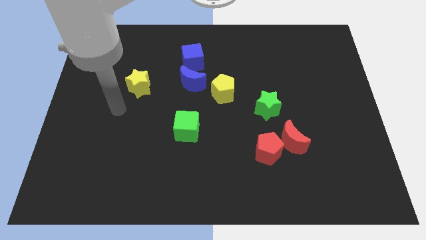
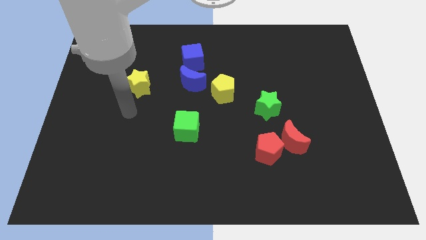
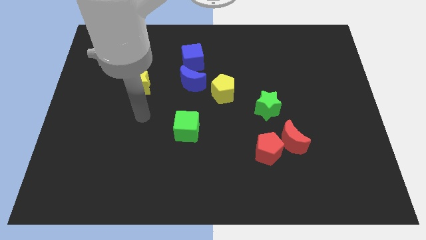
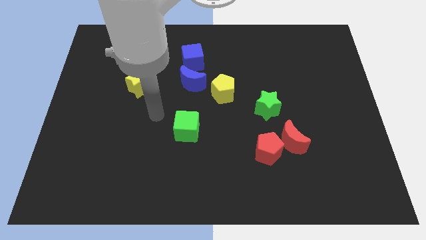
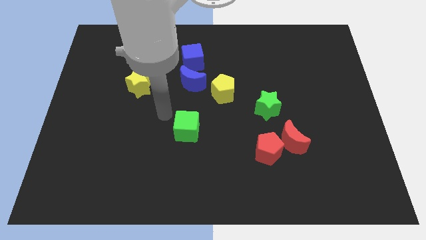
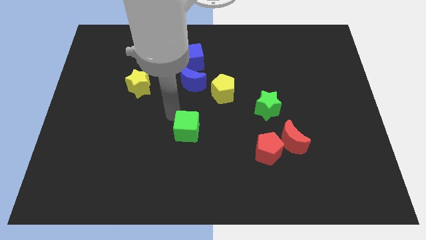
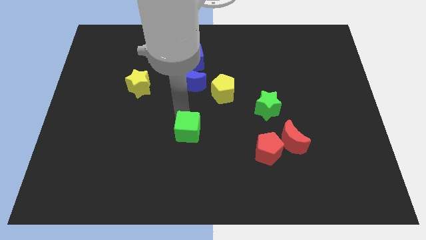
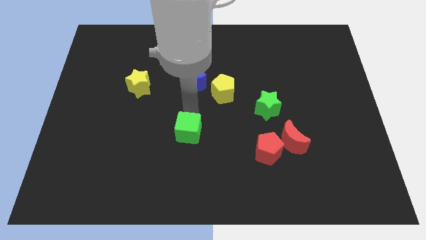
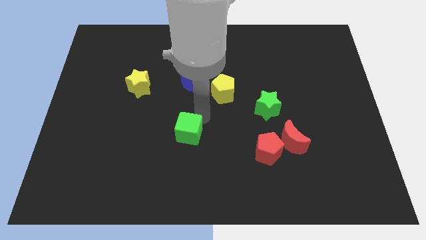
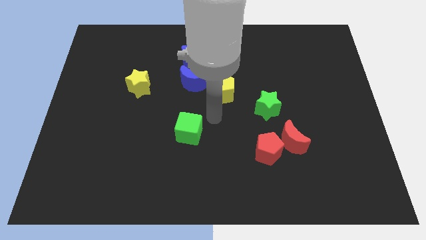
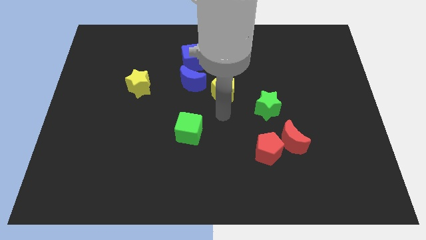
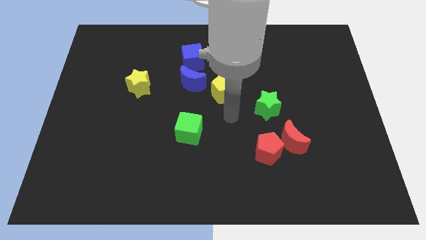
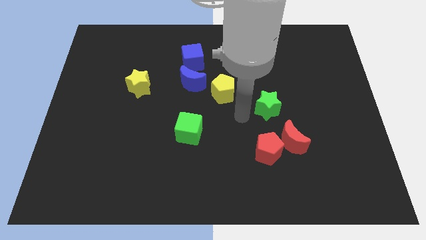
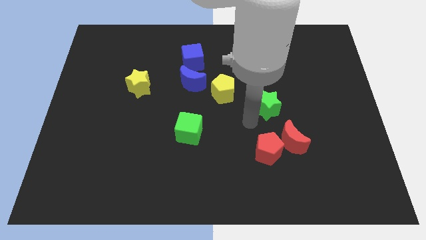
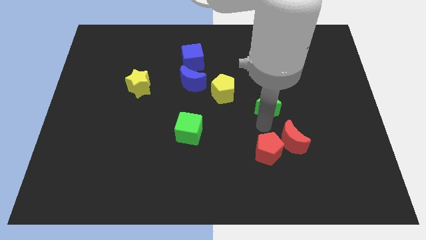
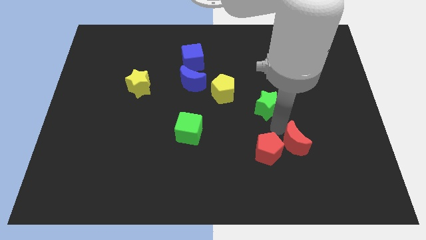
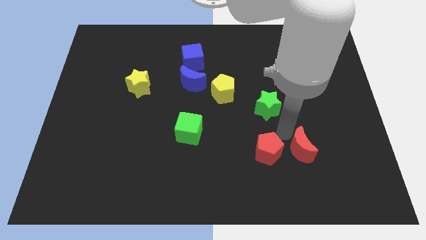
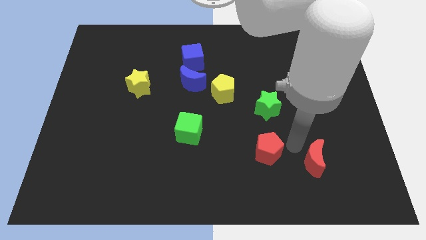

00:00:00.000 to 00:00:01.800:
pull the red pentagon apart from the red moon

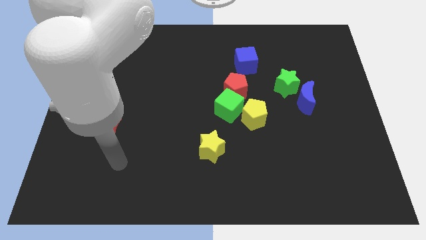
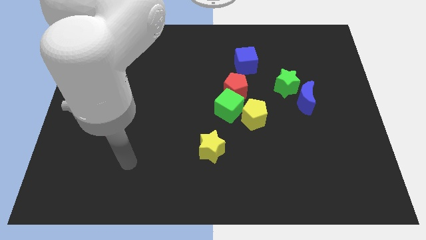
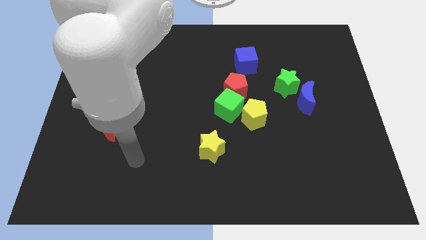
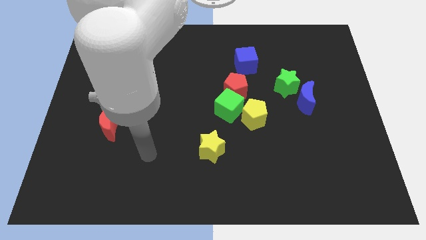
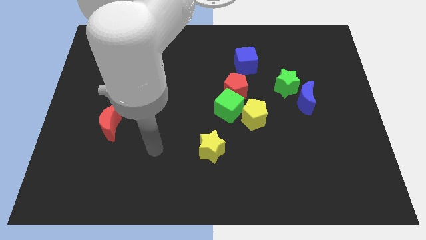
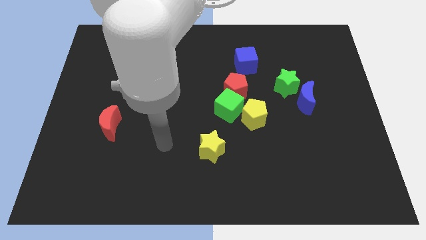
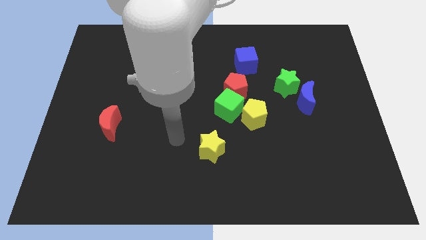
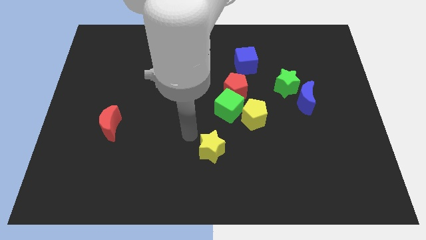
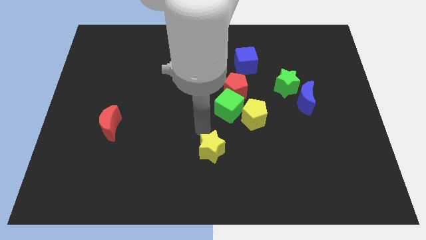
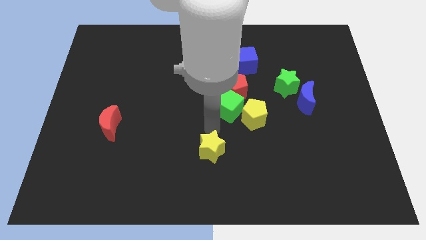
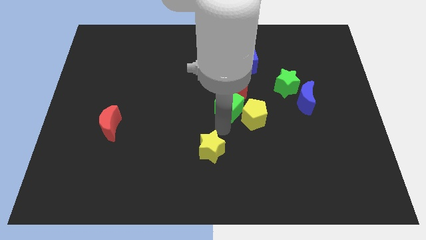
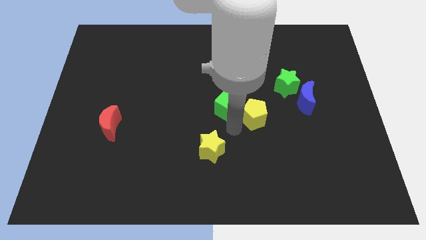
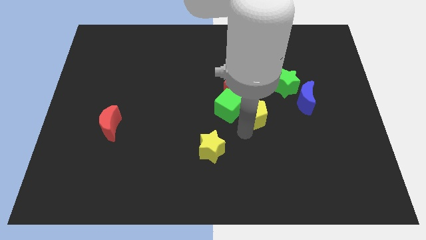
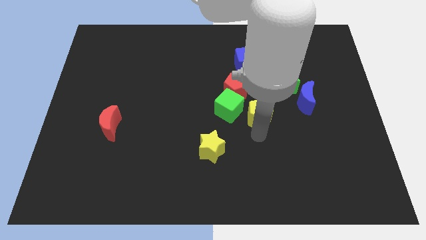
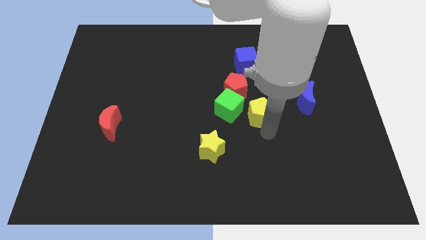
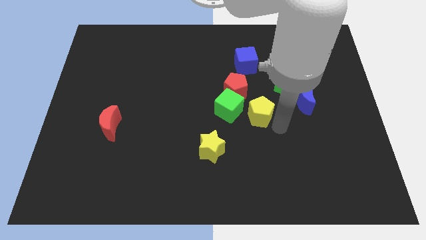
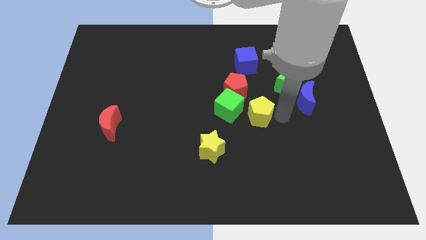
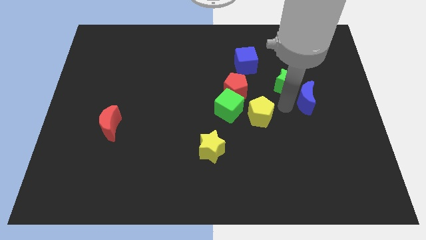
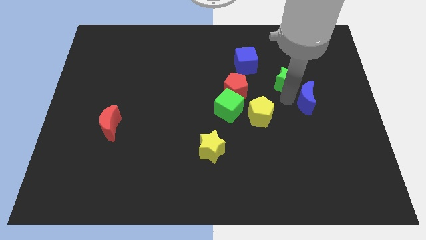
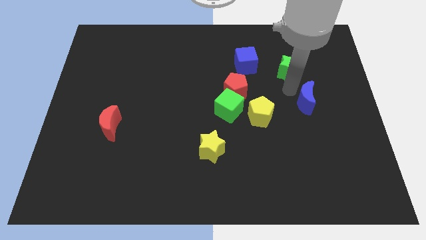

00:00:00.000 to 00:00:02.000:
pull the blue moon apart from the green star

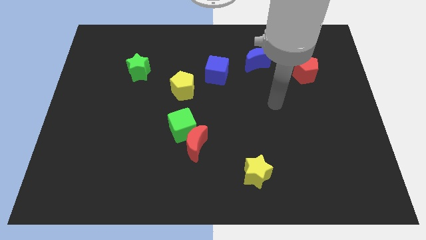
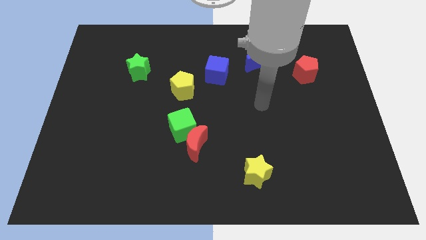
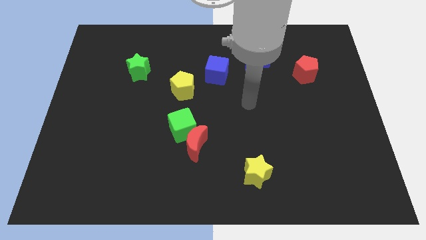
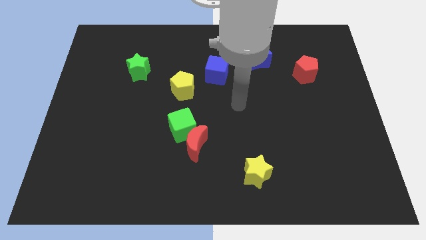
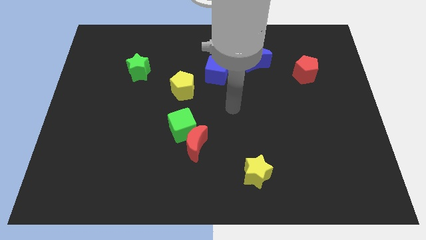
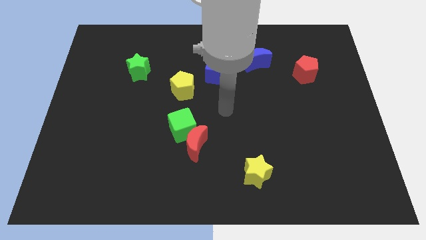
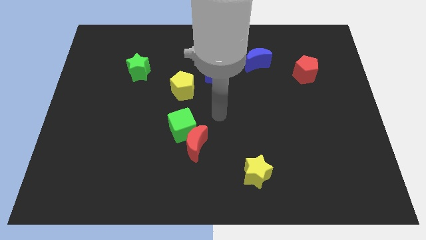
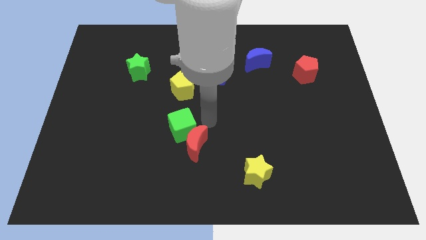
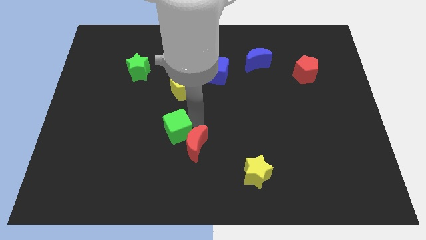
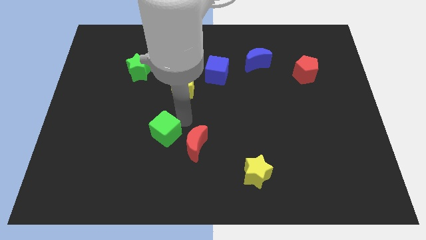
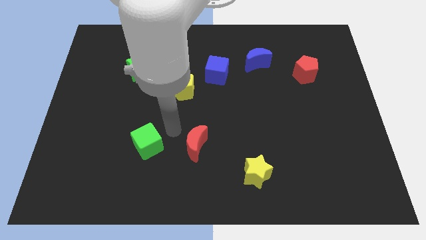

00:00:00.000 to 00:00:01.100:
pull the red moon apart from the green cube

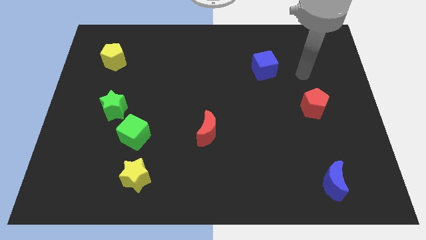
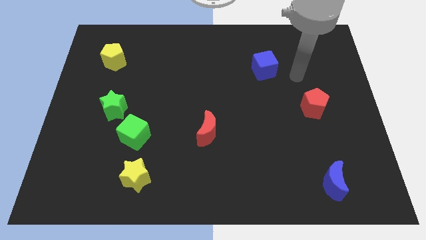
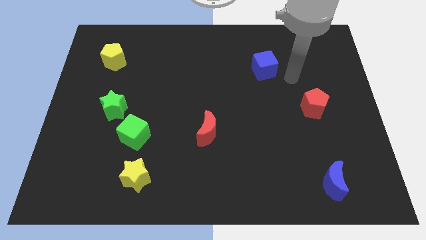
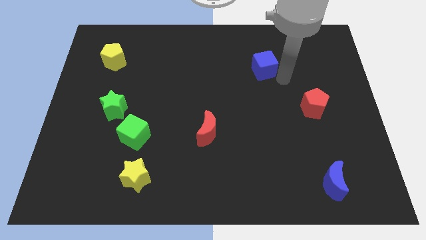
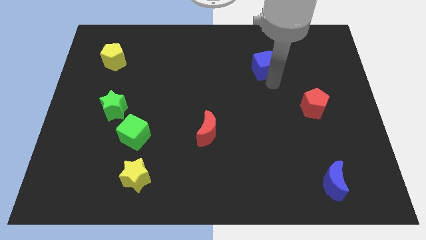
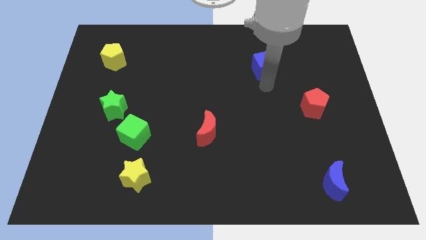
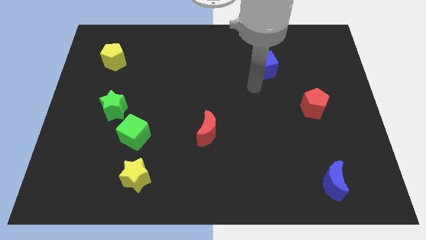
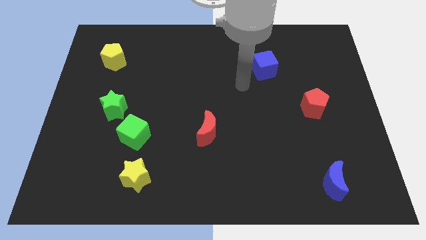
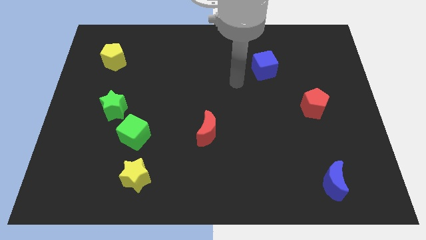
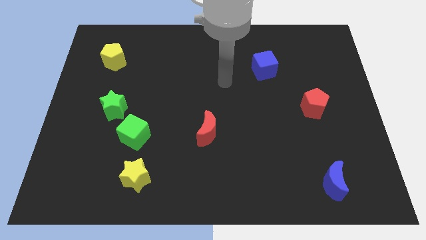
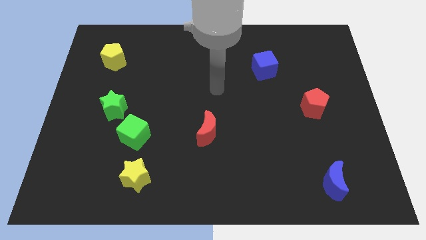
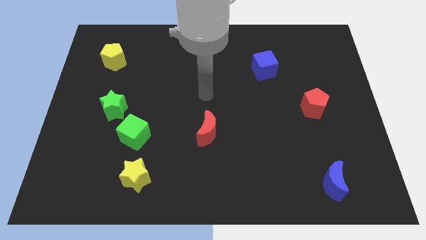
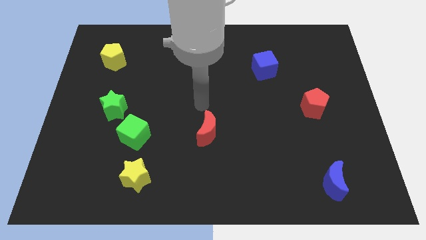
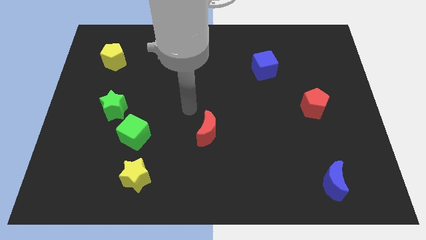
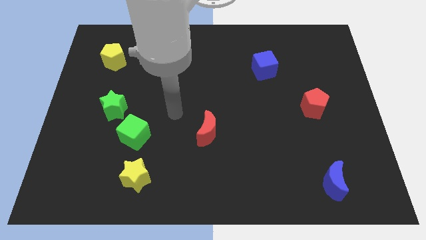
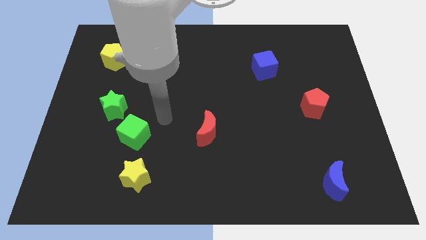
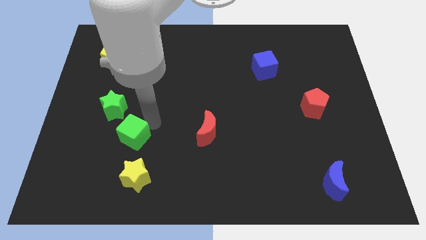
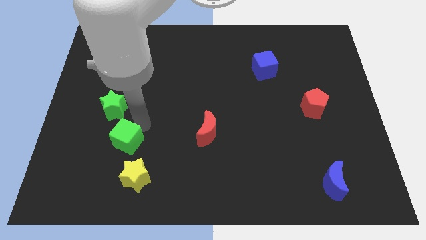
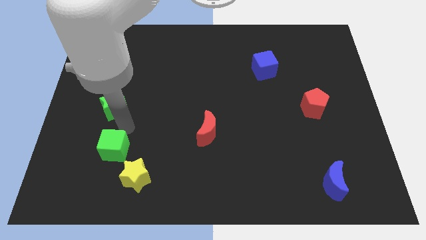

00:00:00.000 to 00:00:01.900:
separate the green star from the green cube

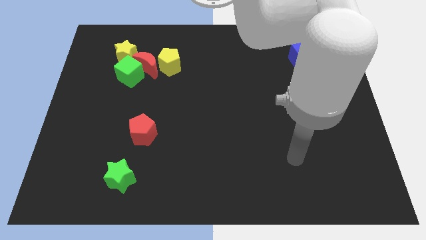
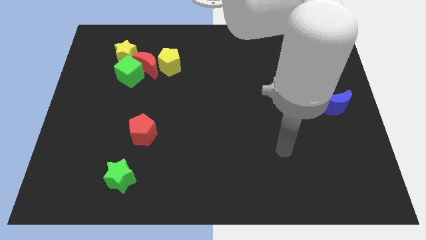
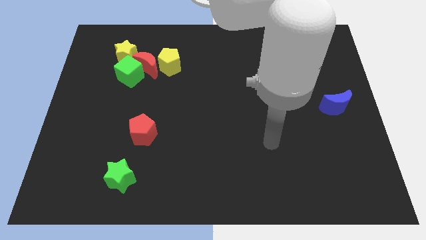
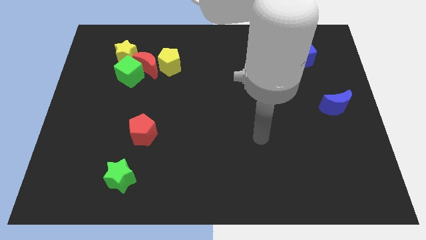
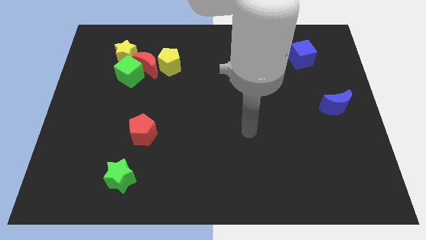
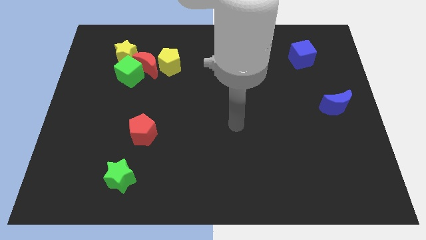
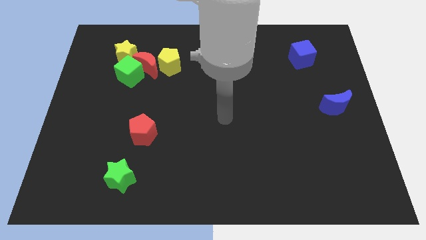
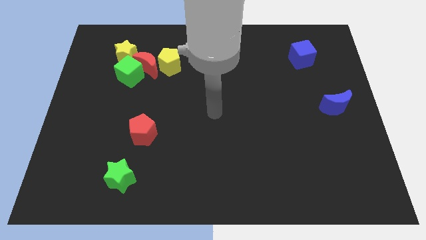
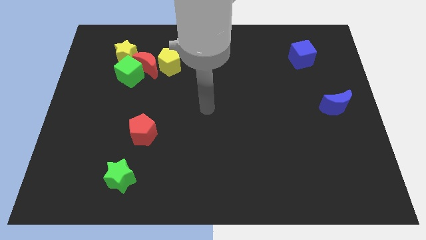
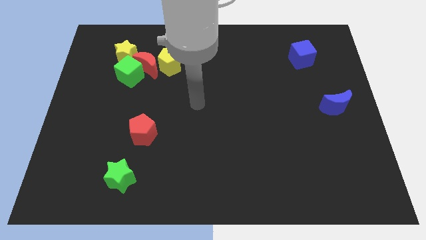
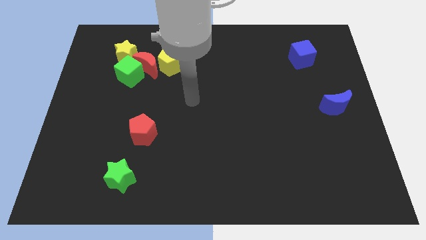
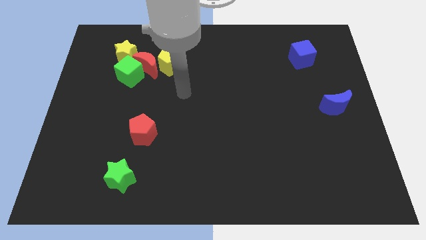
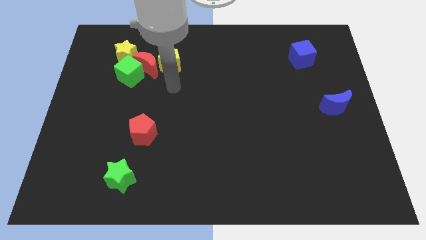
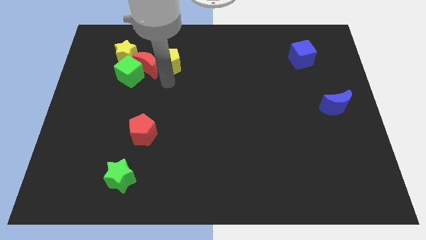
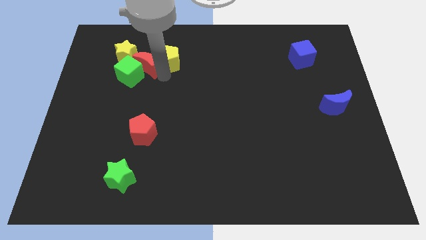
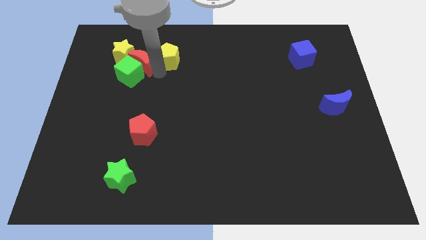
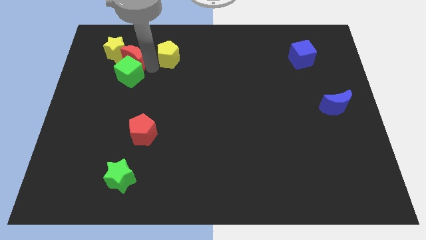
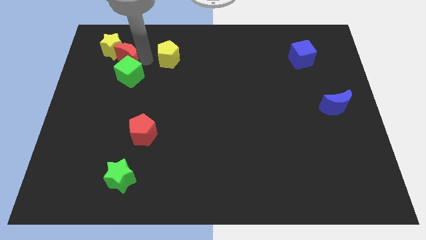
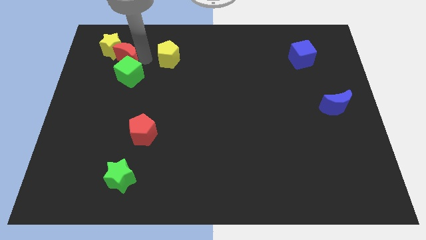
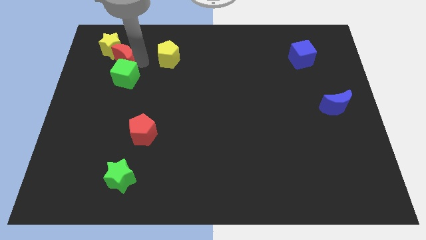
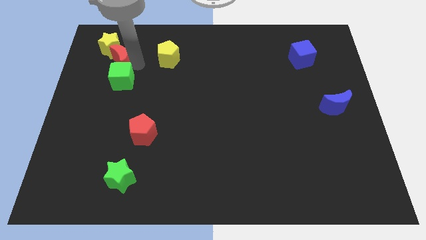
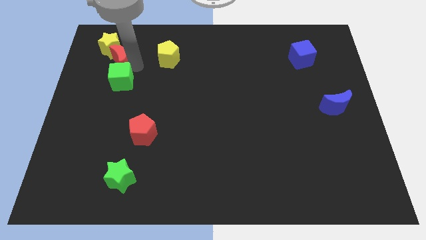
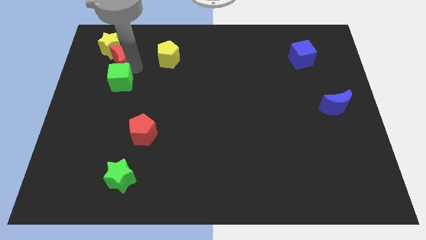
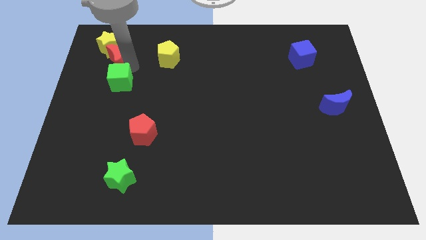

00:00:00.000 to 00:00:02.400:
move the green cube away from the red moon and yellow star

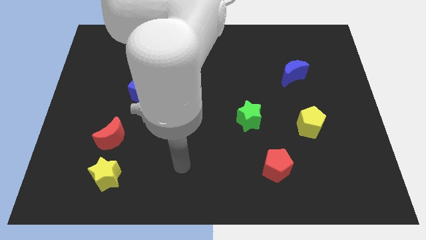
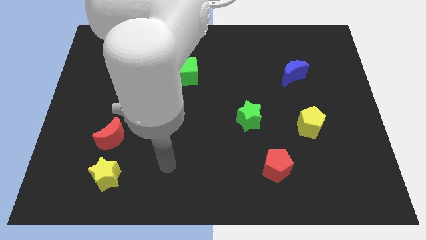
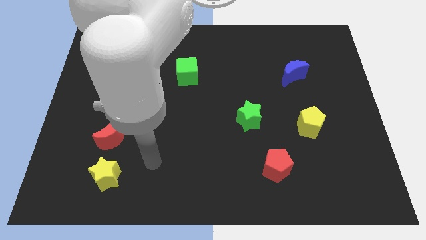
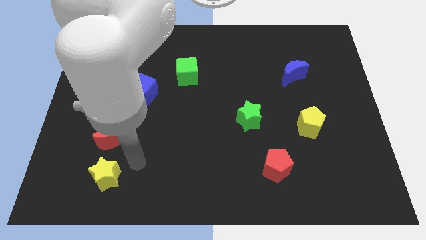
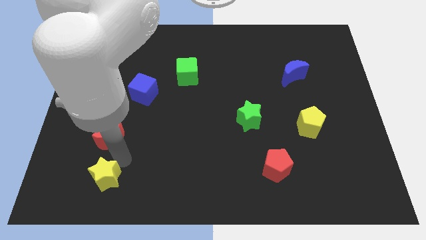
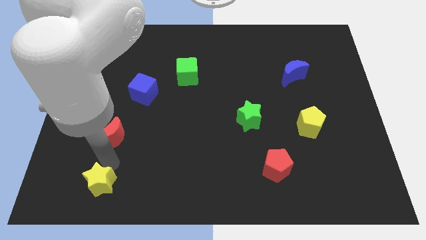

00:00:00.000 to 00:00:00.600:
move the red moon away from the yellow star
